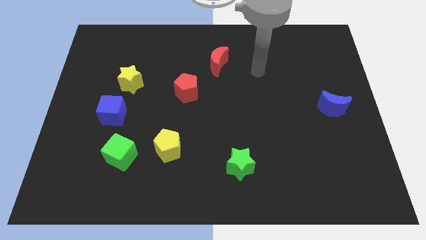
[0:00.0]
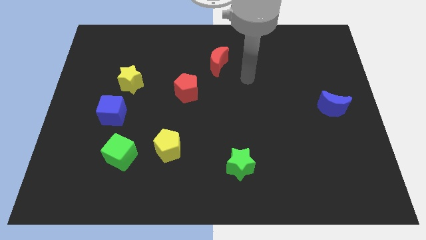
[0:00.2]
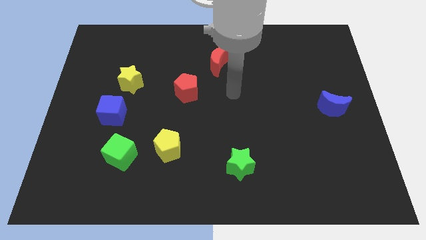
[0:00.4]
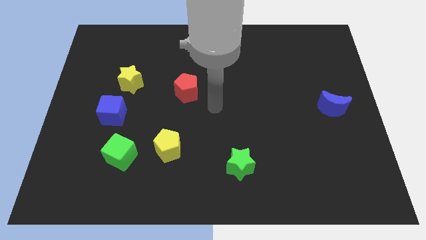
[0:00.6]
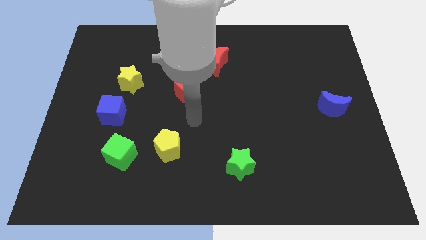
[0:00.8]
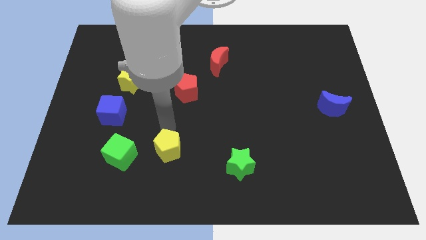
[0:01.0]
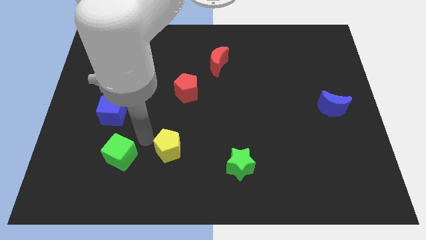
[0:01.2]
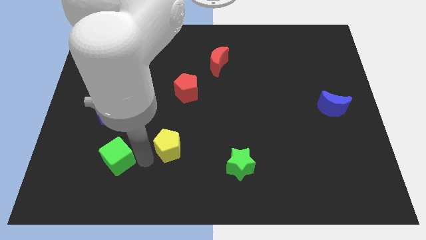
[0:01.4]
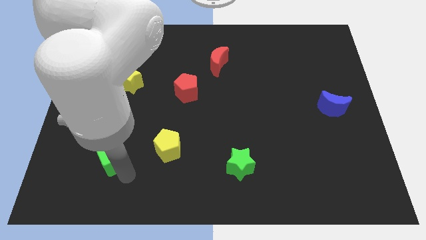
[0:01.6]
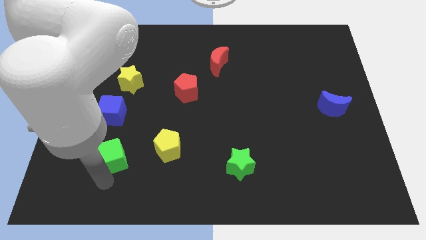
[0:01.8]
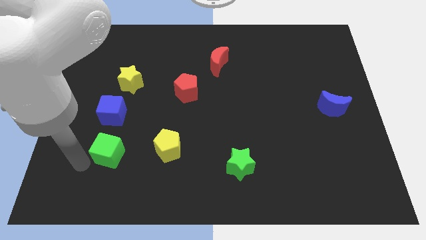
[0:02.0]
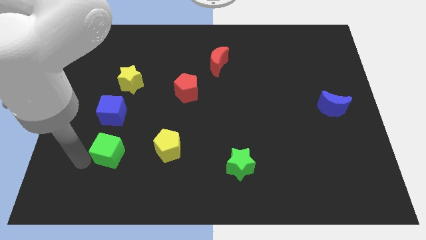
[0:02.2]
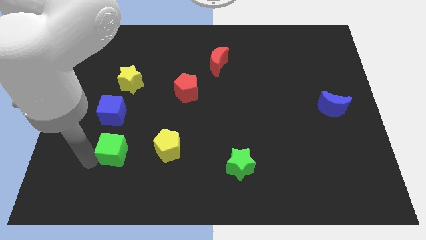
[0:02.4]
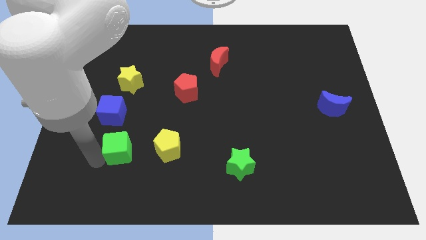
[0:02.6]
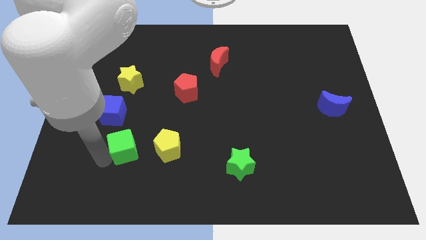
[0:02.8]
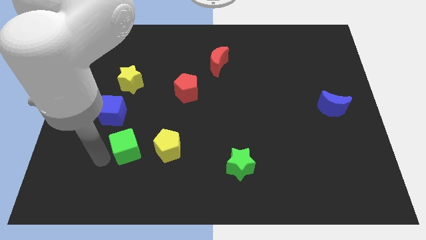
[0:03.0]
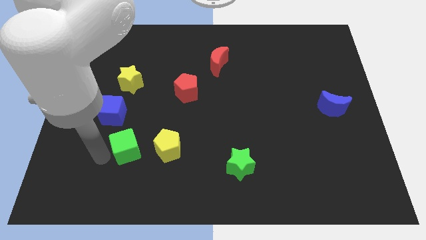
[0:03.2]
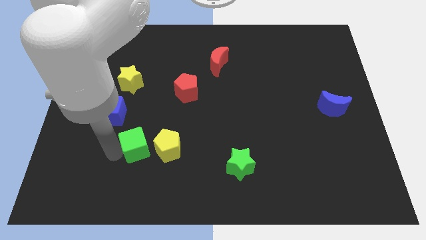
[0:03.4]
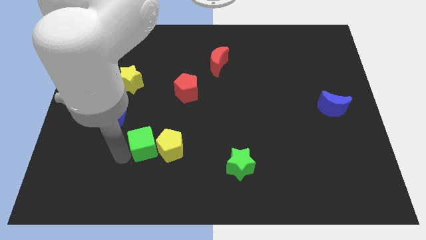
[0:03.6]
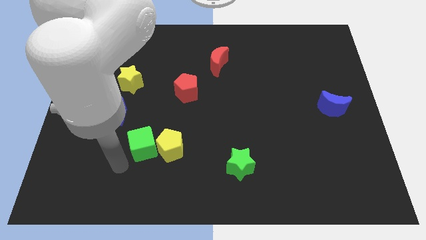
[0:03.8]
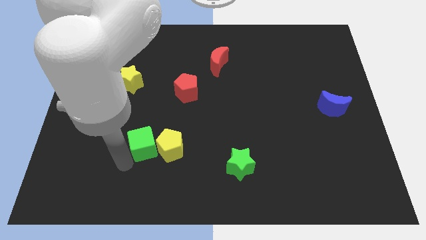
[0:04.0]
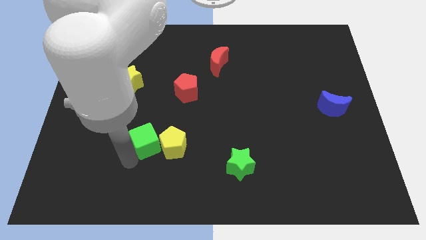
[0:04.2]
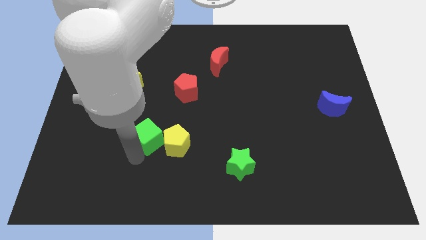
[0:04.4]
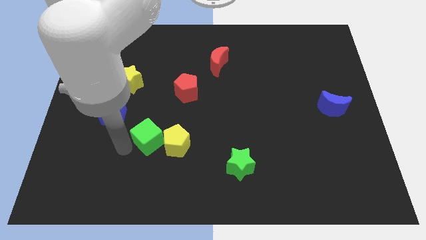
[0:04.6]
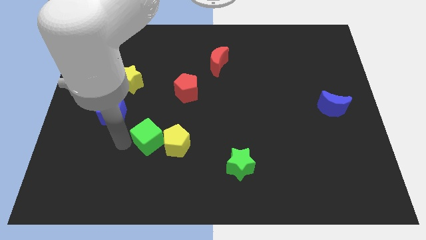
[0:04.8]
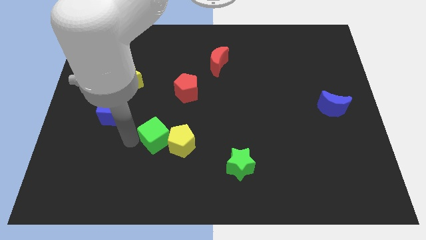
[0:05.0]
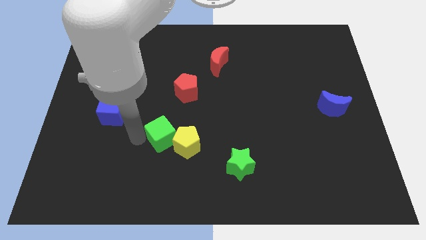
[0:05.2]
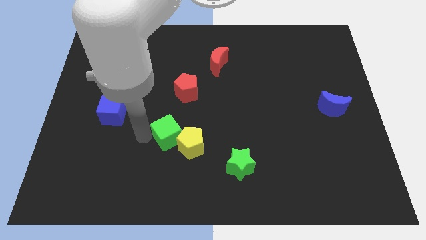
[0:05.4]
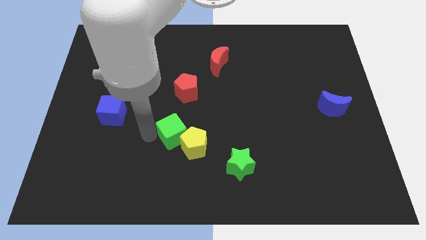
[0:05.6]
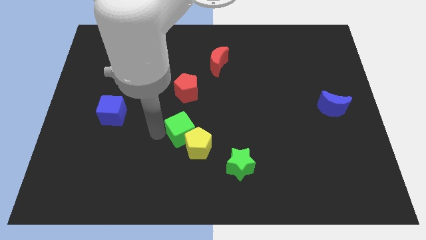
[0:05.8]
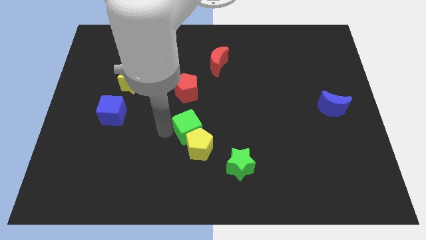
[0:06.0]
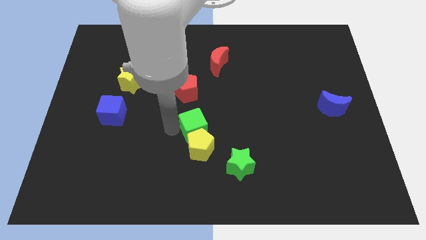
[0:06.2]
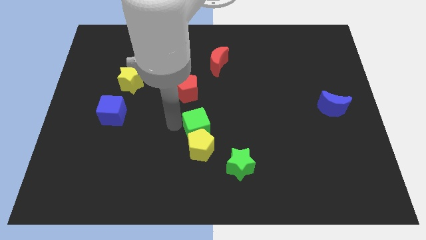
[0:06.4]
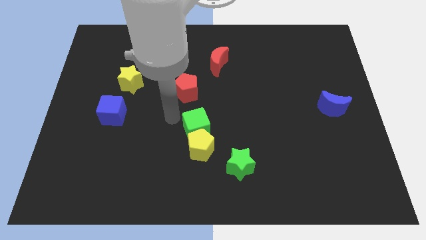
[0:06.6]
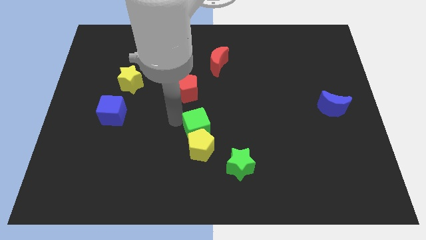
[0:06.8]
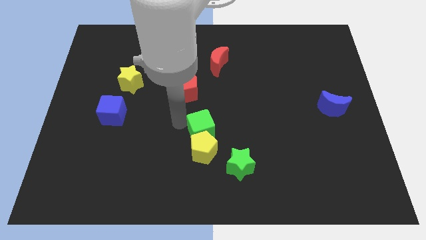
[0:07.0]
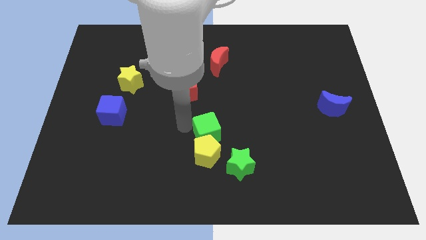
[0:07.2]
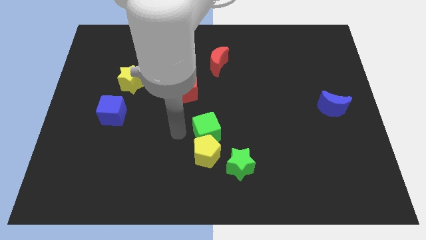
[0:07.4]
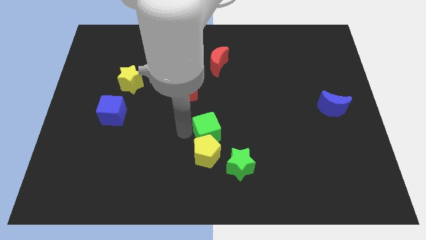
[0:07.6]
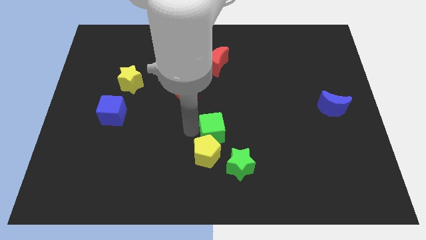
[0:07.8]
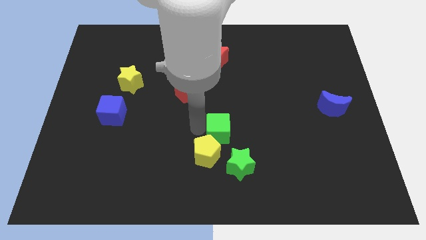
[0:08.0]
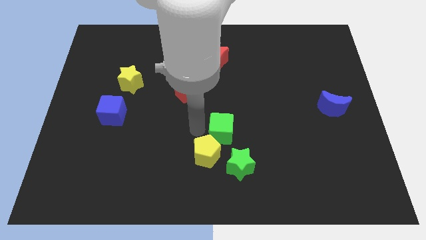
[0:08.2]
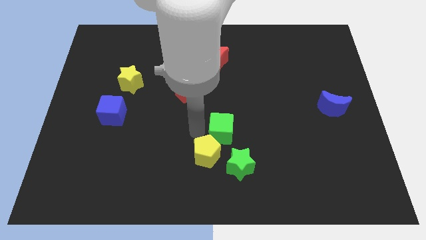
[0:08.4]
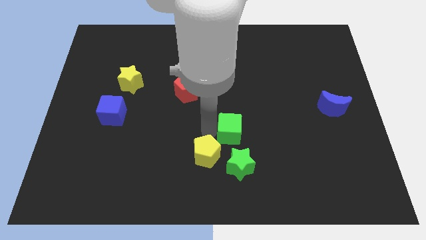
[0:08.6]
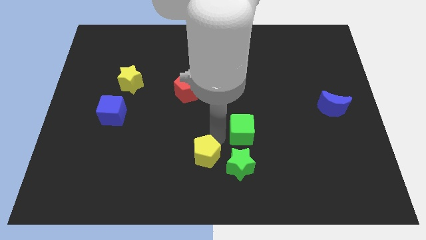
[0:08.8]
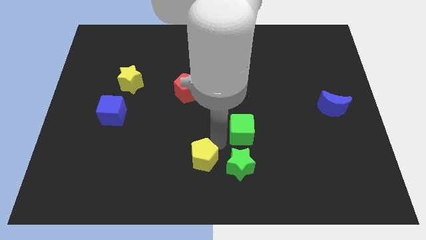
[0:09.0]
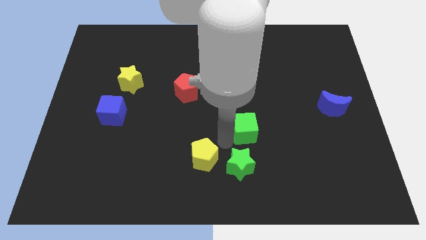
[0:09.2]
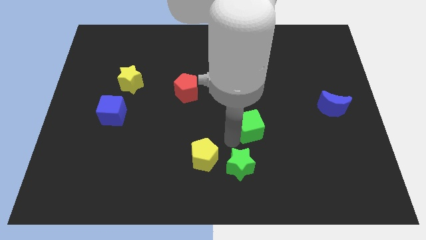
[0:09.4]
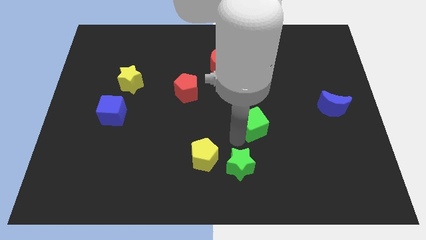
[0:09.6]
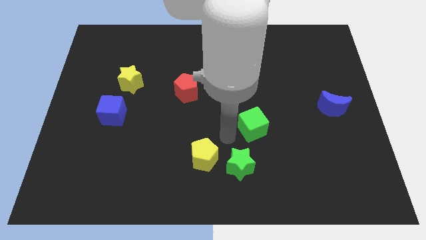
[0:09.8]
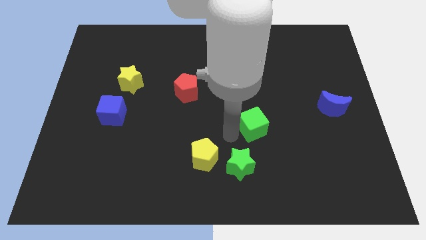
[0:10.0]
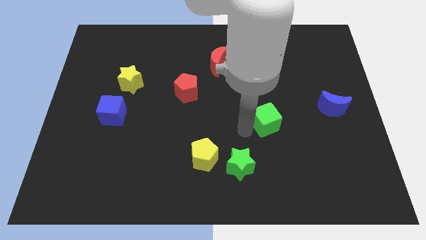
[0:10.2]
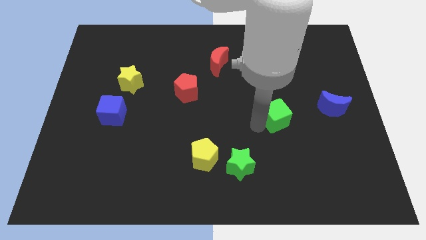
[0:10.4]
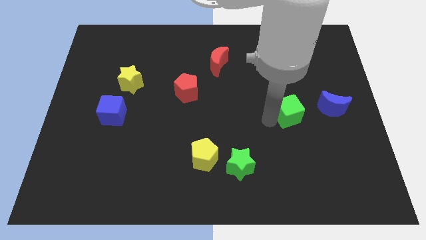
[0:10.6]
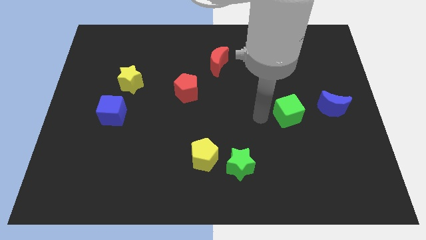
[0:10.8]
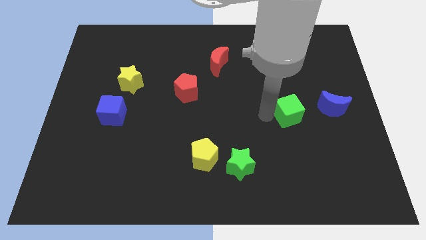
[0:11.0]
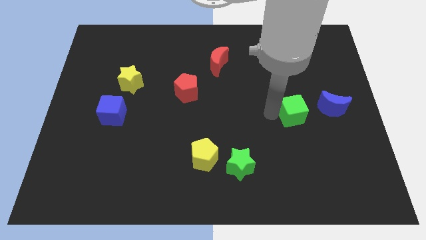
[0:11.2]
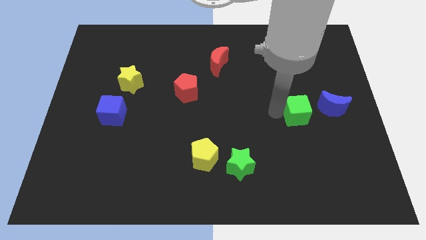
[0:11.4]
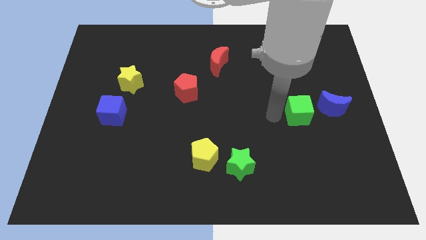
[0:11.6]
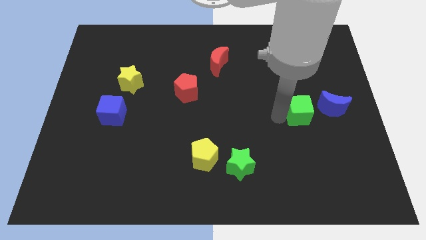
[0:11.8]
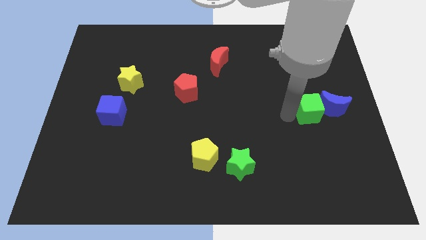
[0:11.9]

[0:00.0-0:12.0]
put the green cube close to the blue moon

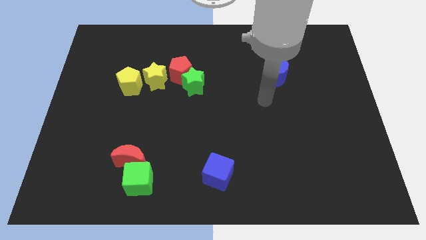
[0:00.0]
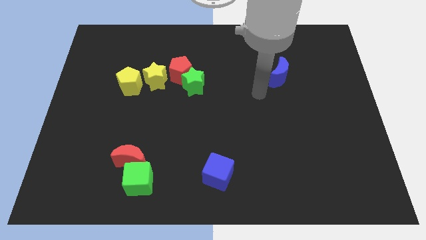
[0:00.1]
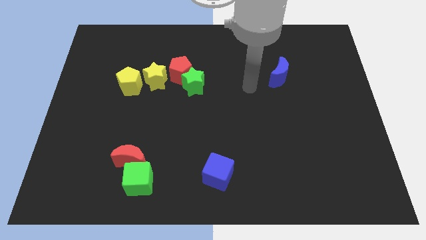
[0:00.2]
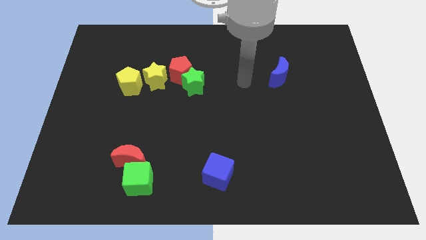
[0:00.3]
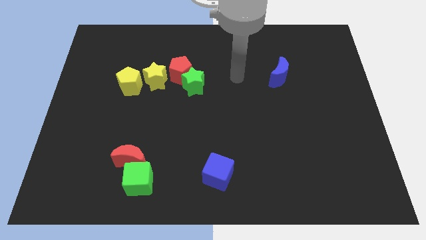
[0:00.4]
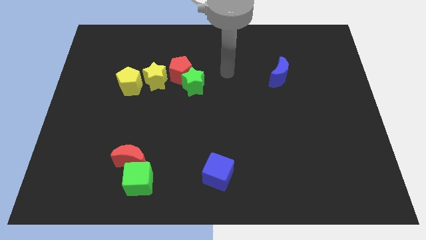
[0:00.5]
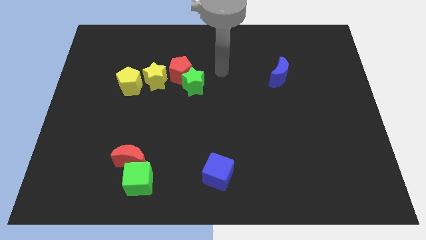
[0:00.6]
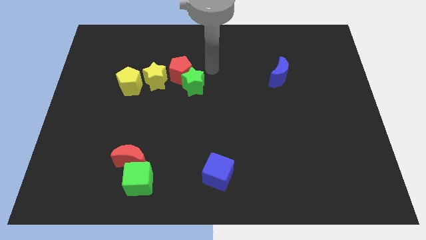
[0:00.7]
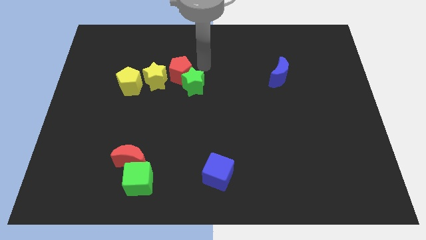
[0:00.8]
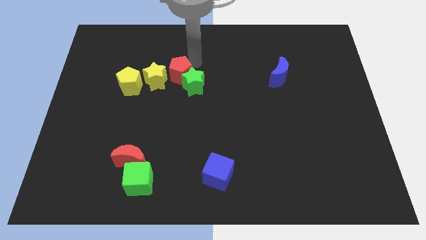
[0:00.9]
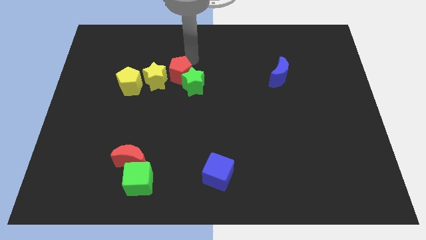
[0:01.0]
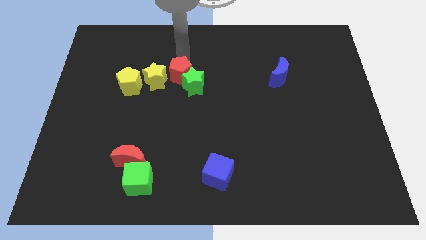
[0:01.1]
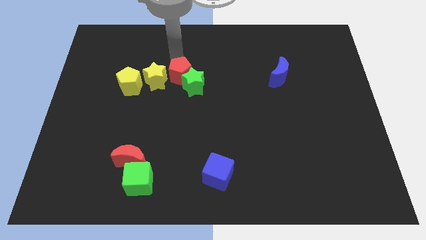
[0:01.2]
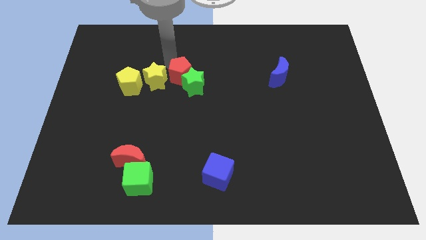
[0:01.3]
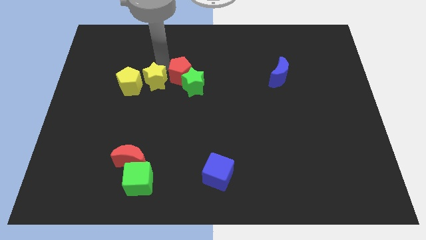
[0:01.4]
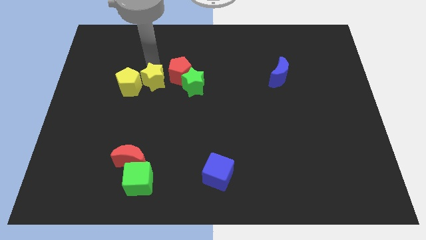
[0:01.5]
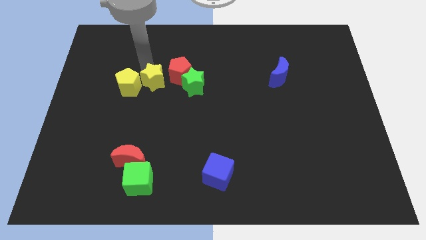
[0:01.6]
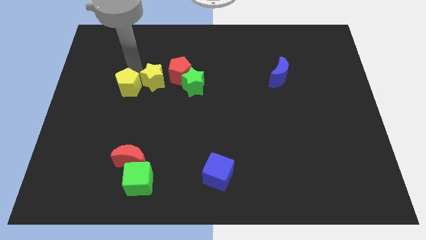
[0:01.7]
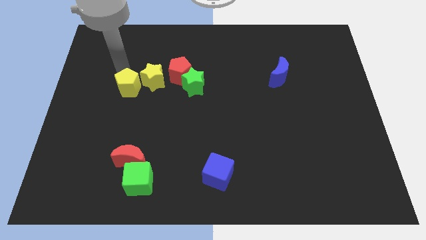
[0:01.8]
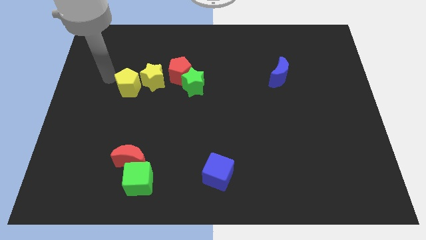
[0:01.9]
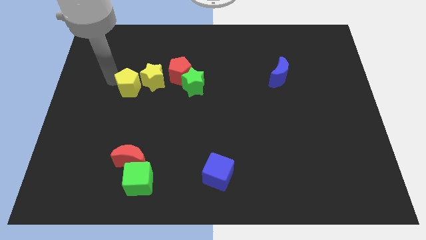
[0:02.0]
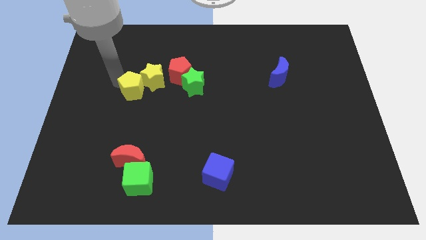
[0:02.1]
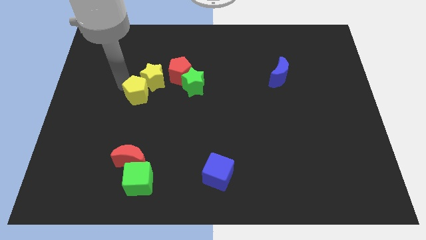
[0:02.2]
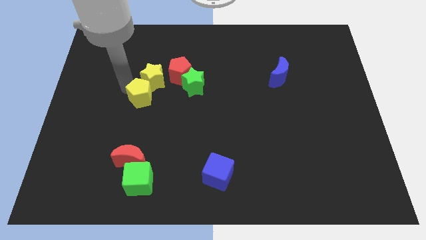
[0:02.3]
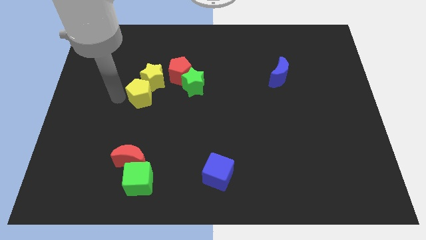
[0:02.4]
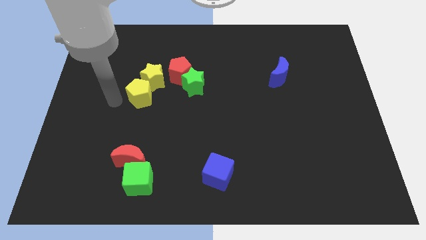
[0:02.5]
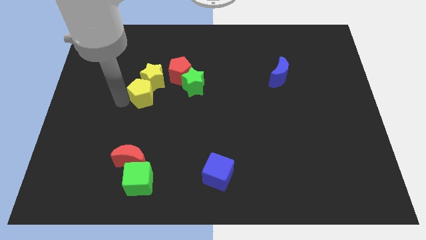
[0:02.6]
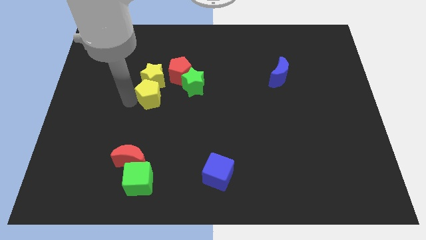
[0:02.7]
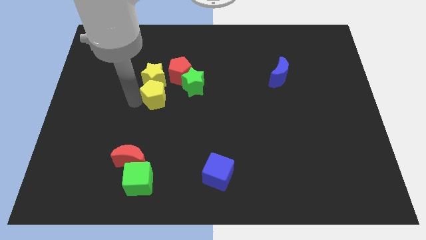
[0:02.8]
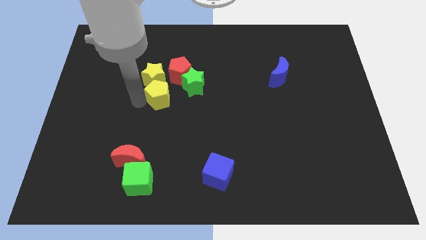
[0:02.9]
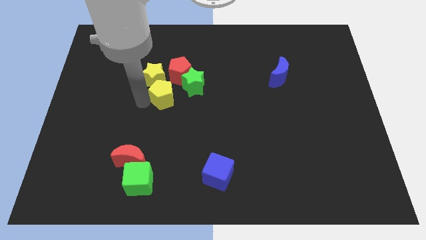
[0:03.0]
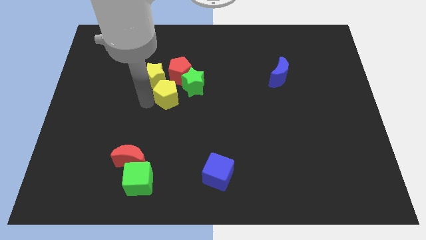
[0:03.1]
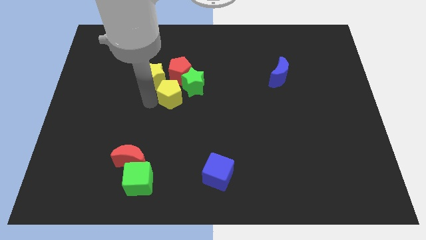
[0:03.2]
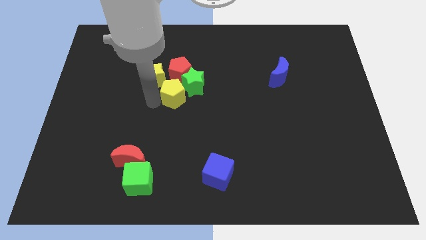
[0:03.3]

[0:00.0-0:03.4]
slide the yellow pentagon to the green star
